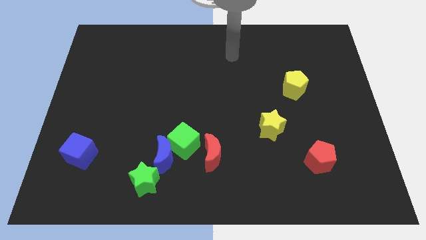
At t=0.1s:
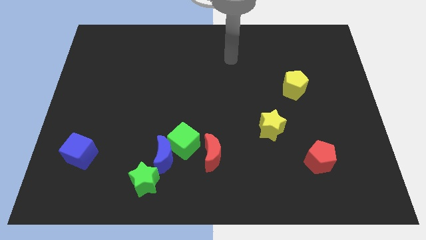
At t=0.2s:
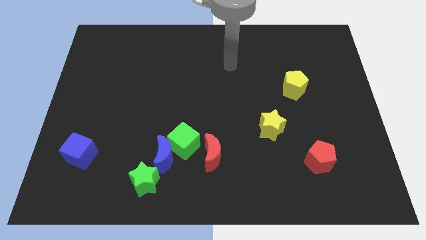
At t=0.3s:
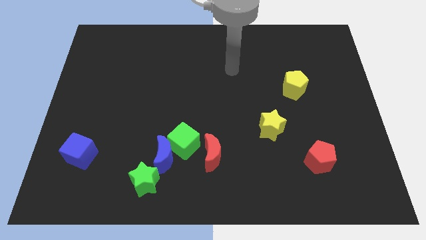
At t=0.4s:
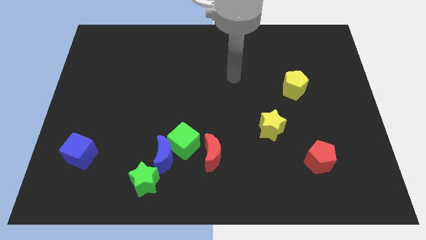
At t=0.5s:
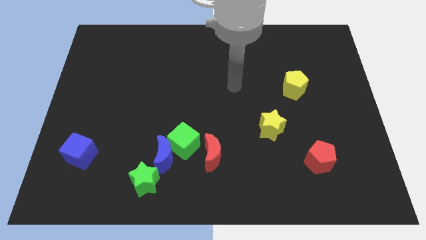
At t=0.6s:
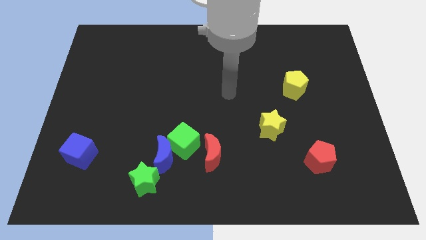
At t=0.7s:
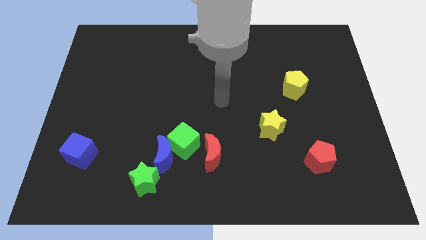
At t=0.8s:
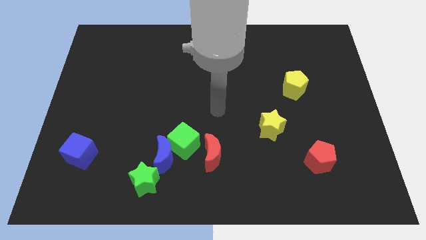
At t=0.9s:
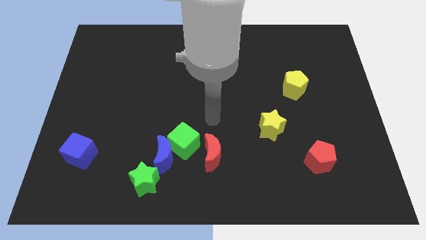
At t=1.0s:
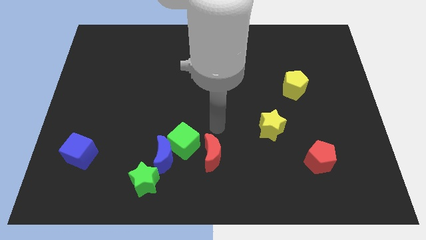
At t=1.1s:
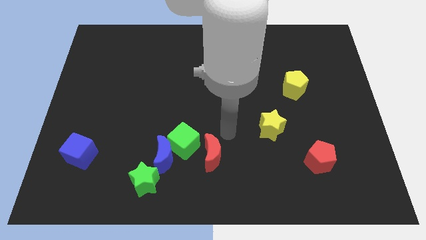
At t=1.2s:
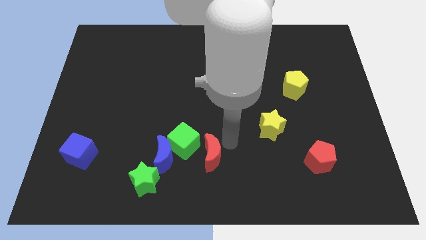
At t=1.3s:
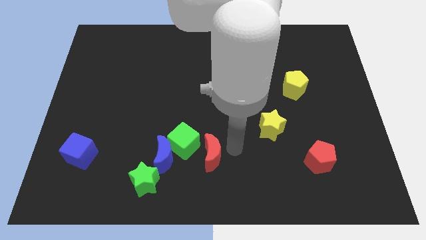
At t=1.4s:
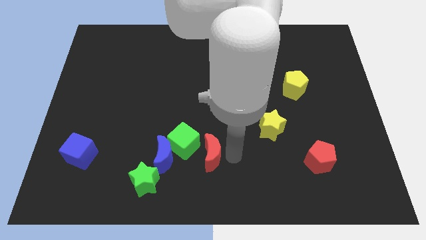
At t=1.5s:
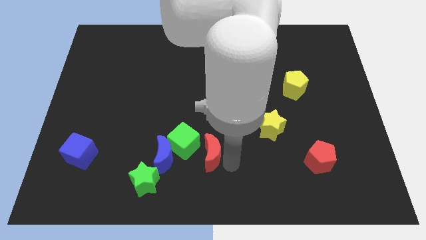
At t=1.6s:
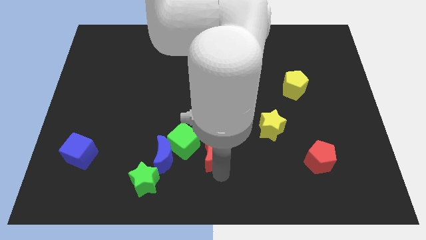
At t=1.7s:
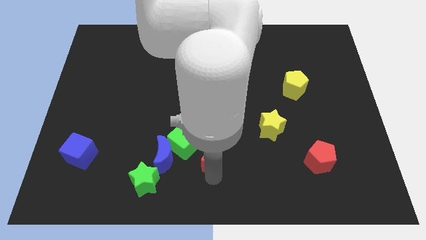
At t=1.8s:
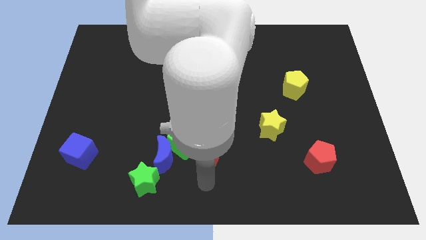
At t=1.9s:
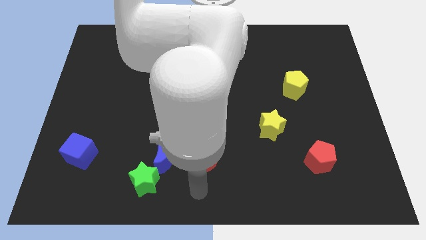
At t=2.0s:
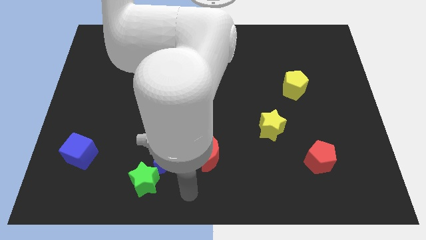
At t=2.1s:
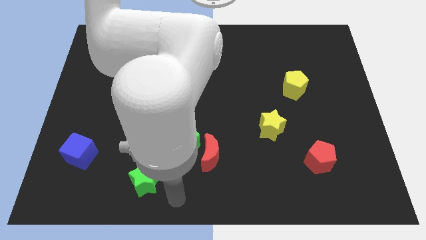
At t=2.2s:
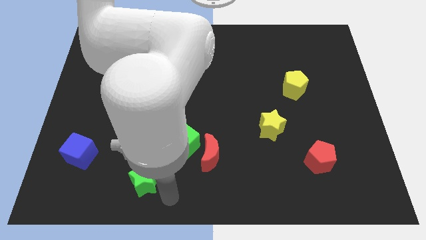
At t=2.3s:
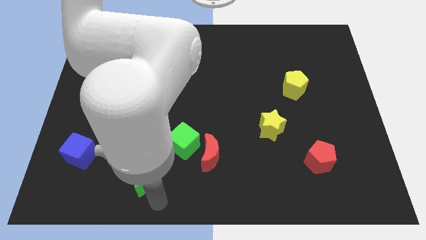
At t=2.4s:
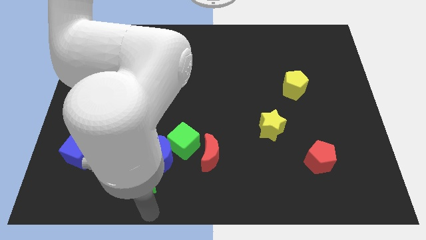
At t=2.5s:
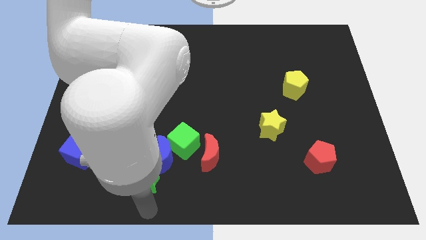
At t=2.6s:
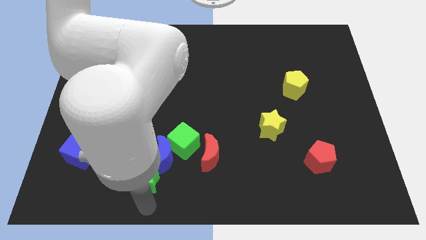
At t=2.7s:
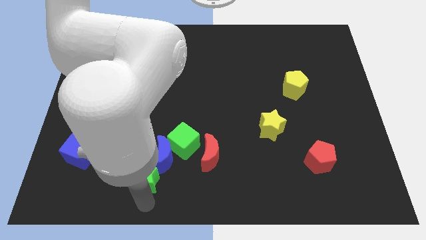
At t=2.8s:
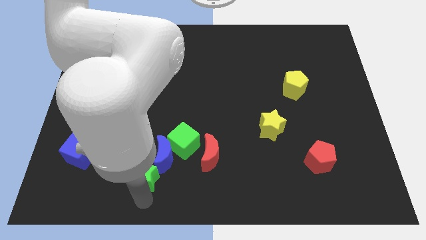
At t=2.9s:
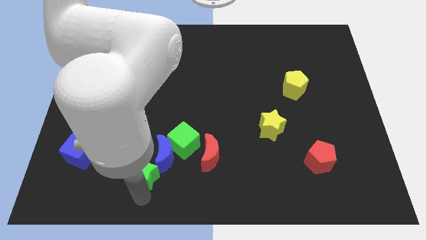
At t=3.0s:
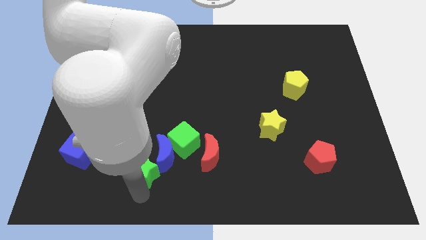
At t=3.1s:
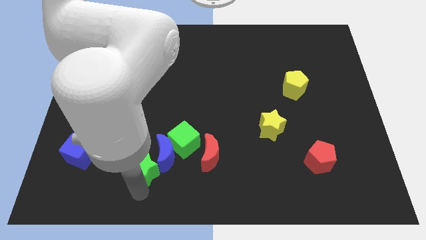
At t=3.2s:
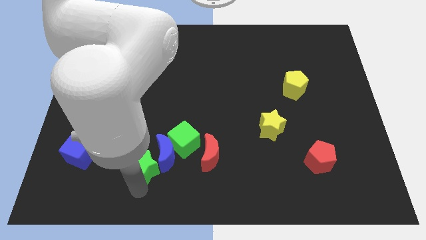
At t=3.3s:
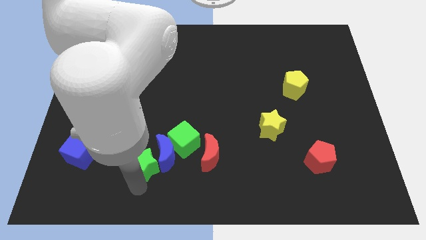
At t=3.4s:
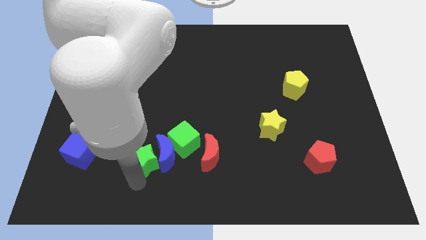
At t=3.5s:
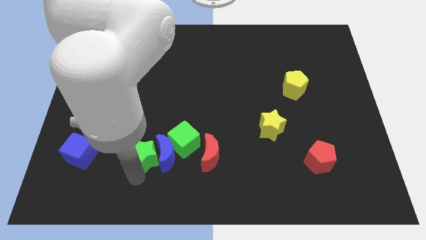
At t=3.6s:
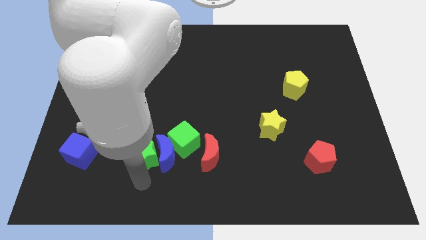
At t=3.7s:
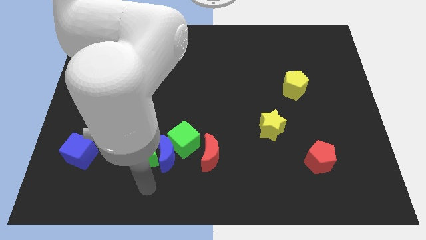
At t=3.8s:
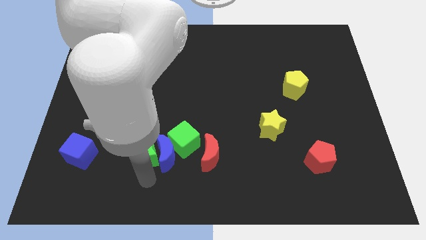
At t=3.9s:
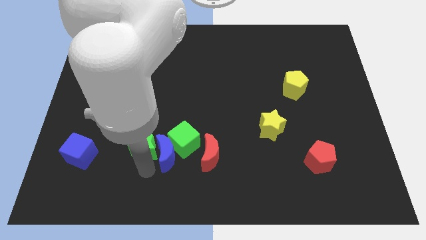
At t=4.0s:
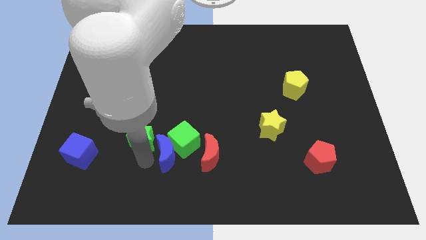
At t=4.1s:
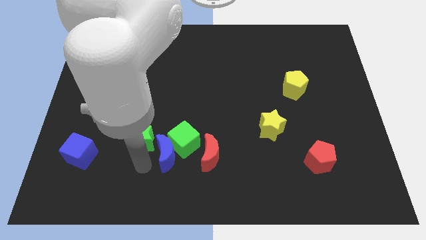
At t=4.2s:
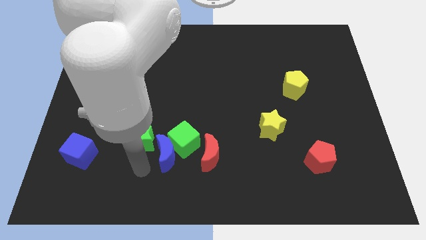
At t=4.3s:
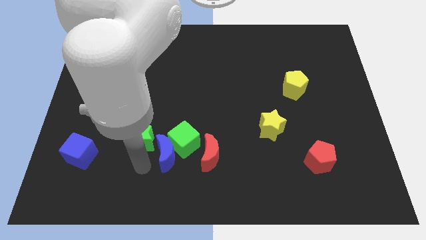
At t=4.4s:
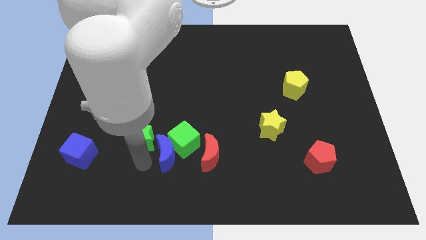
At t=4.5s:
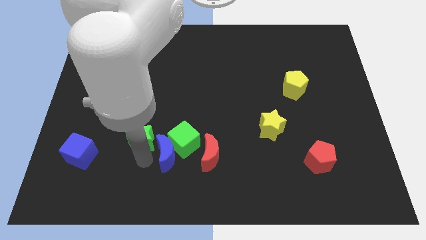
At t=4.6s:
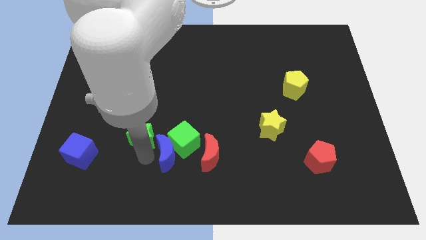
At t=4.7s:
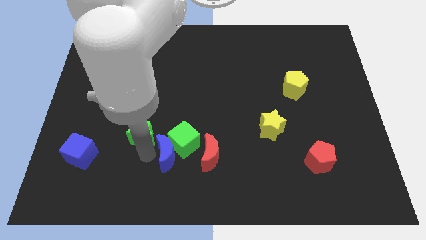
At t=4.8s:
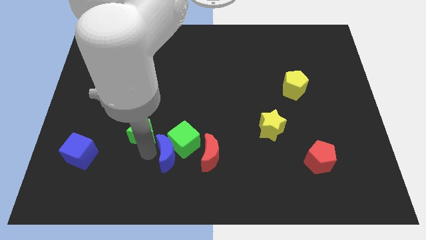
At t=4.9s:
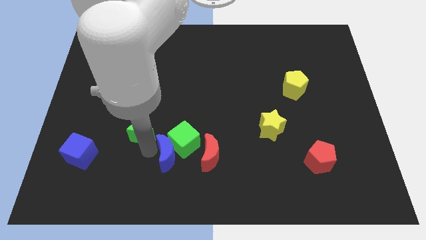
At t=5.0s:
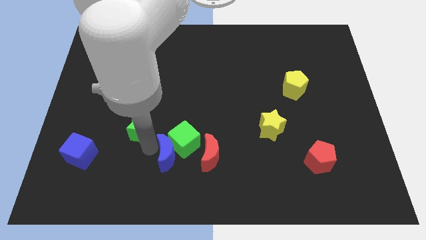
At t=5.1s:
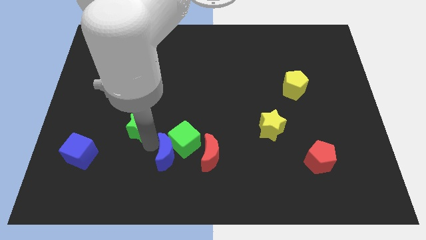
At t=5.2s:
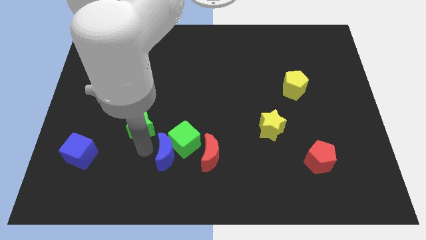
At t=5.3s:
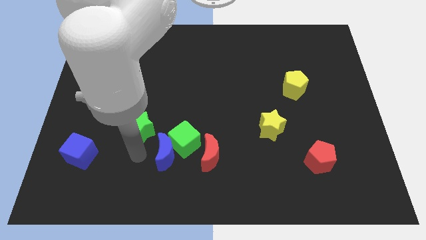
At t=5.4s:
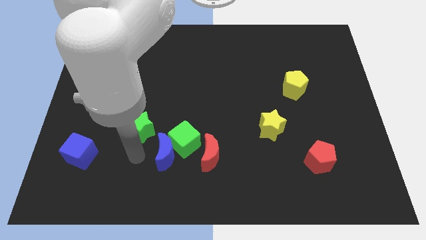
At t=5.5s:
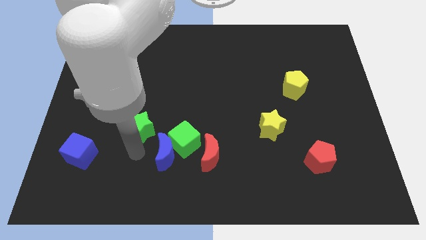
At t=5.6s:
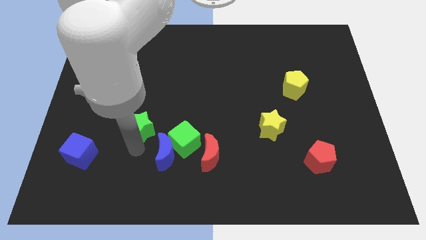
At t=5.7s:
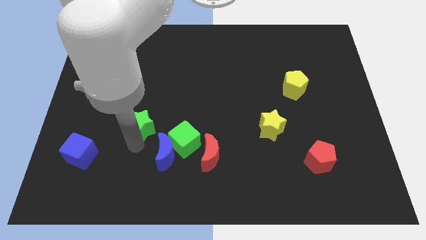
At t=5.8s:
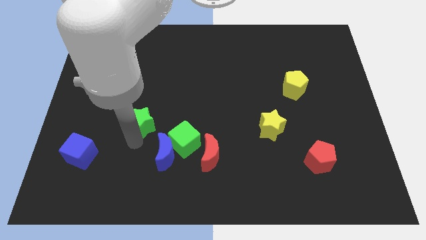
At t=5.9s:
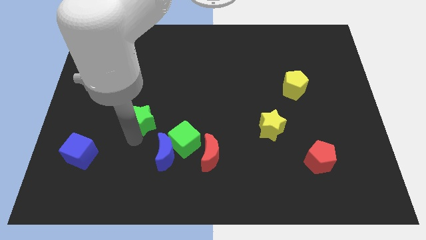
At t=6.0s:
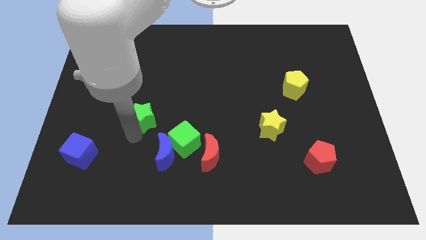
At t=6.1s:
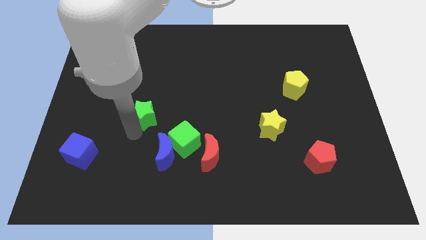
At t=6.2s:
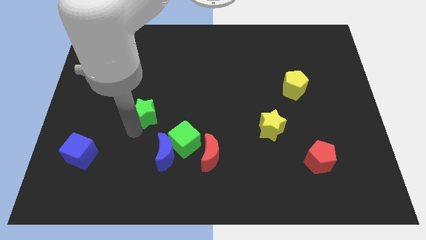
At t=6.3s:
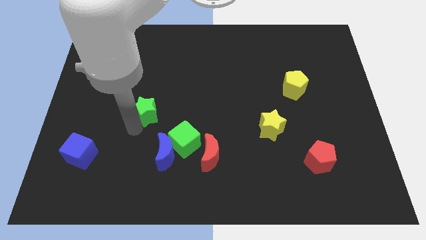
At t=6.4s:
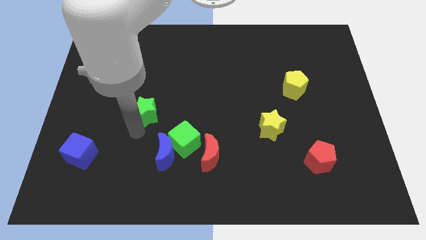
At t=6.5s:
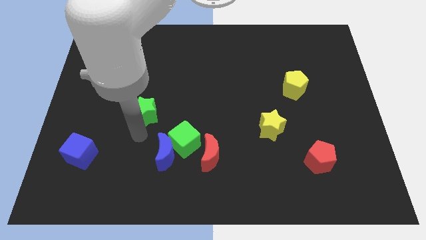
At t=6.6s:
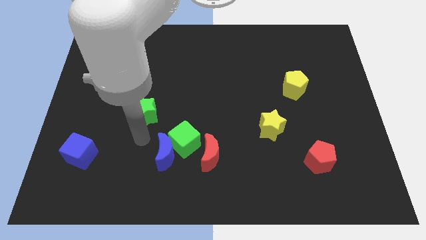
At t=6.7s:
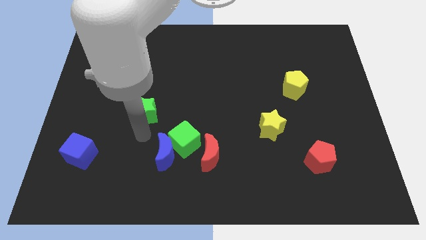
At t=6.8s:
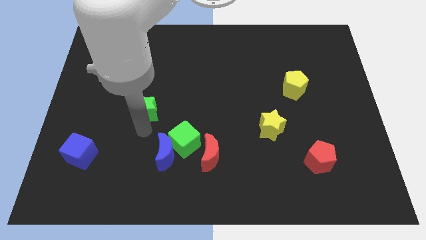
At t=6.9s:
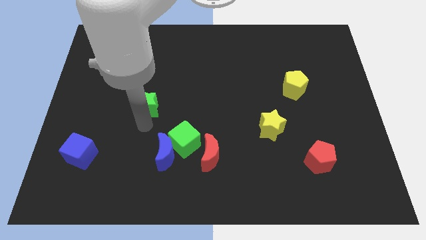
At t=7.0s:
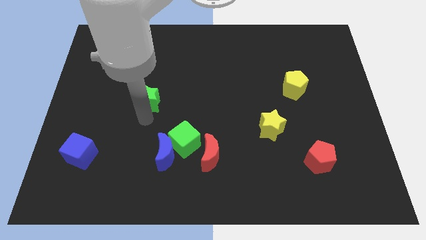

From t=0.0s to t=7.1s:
slide the green star upwards

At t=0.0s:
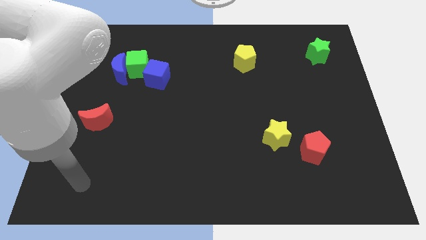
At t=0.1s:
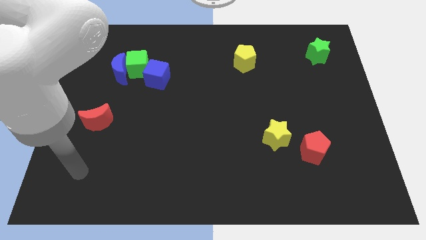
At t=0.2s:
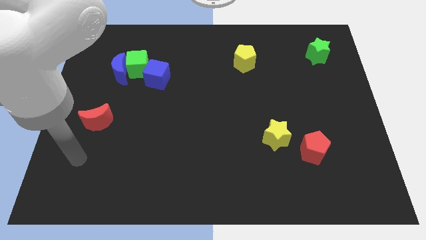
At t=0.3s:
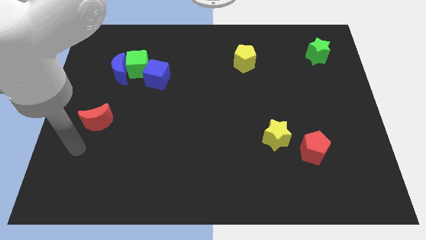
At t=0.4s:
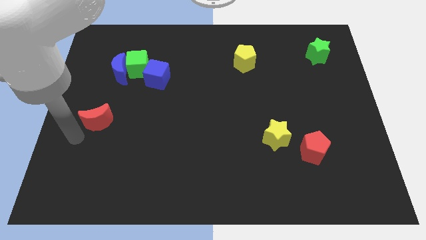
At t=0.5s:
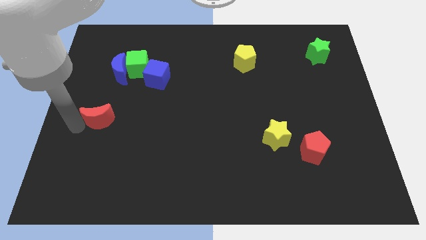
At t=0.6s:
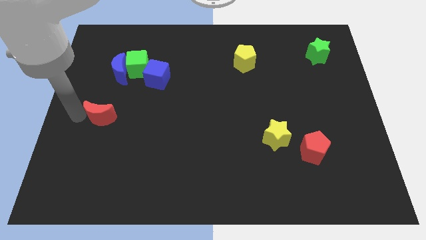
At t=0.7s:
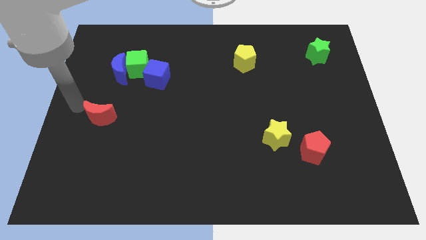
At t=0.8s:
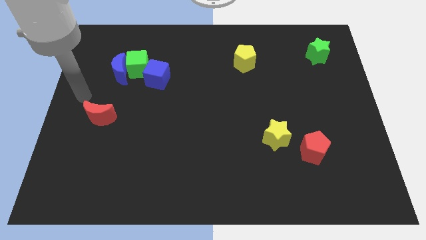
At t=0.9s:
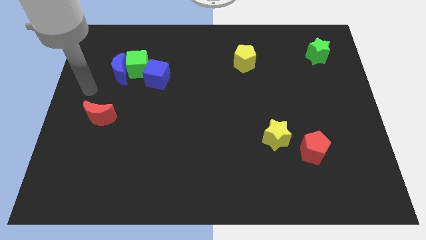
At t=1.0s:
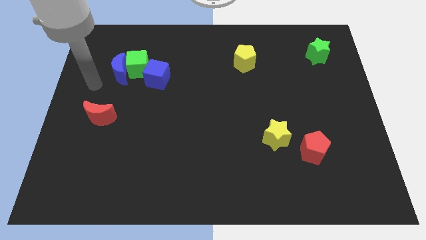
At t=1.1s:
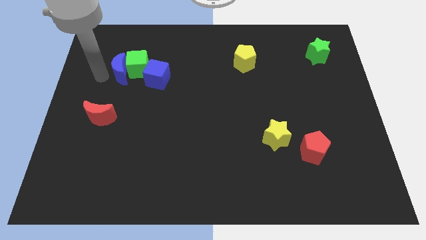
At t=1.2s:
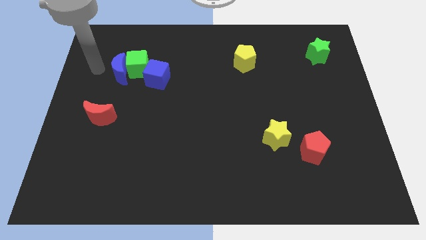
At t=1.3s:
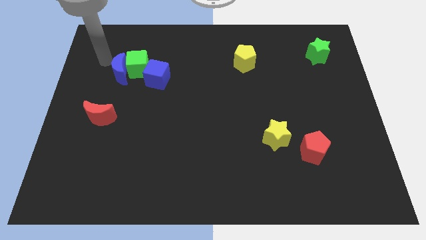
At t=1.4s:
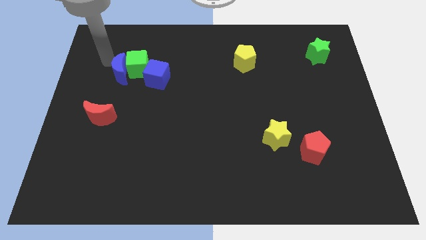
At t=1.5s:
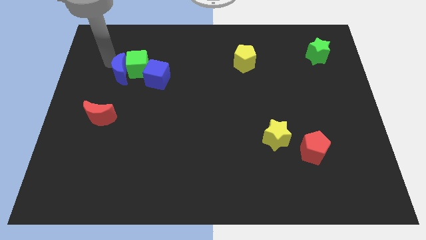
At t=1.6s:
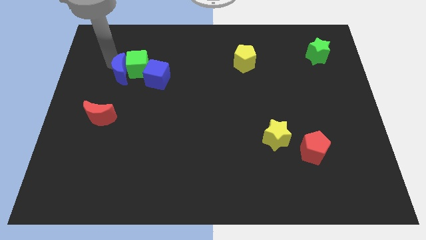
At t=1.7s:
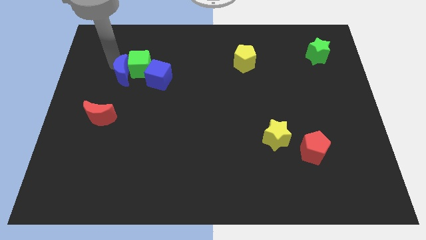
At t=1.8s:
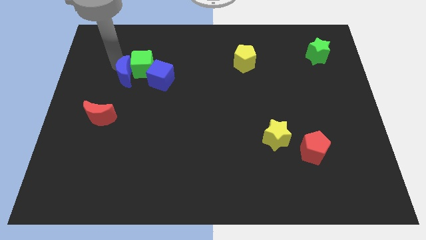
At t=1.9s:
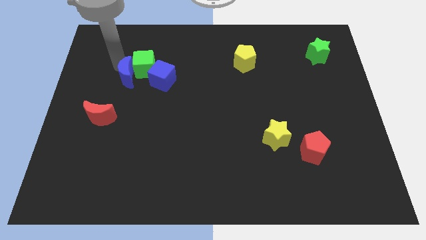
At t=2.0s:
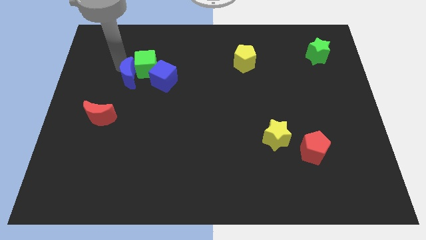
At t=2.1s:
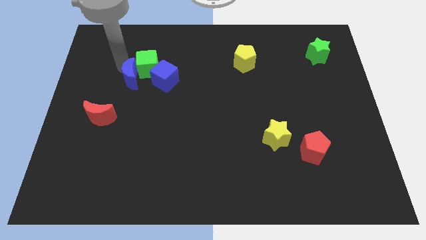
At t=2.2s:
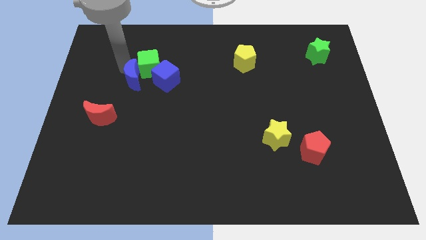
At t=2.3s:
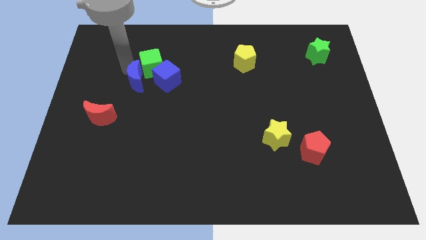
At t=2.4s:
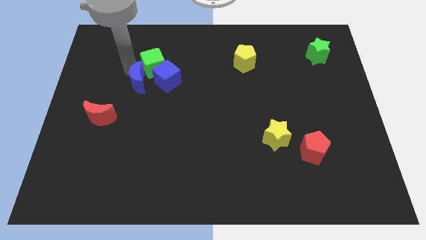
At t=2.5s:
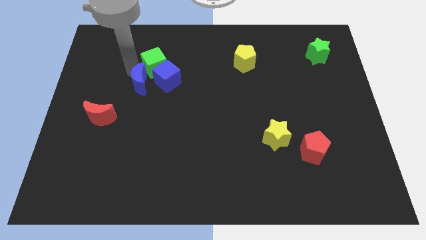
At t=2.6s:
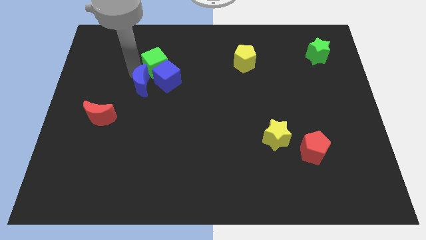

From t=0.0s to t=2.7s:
slightly move the blue moon down and right diagonally
